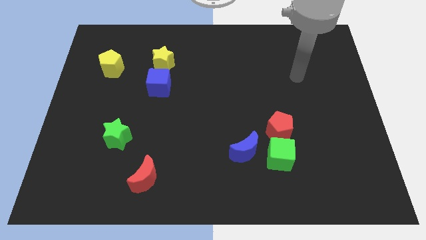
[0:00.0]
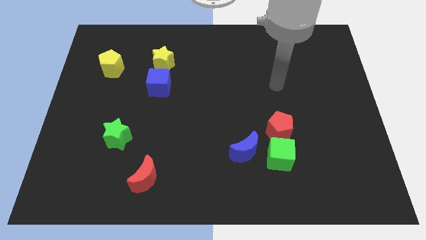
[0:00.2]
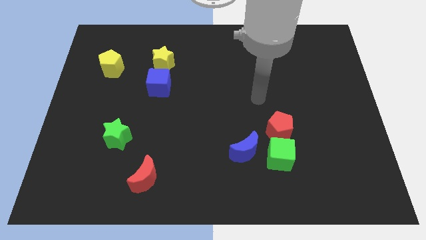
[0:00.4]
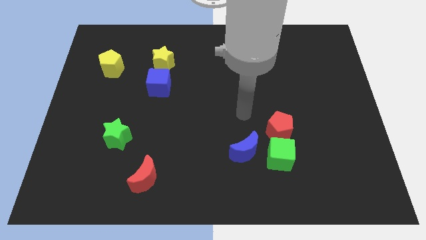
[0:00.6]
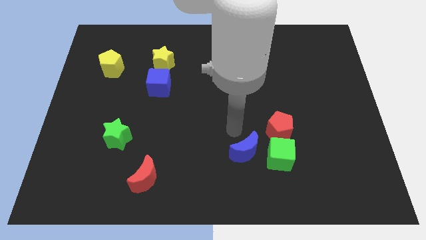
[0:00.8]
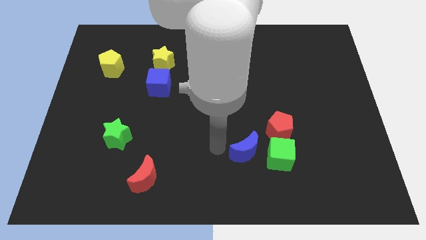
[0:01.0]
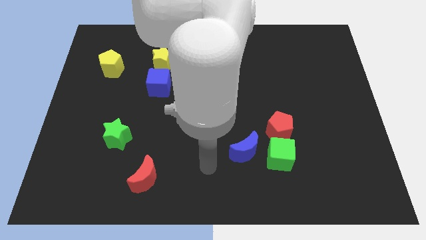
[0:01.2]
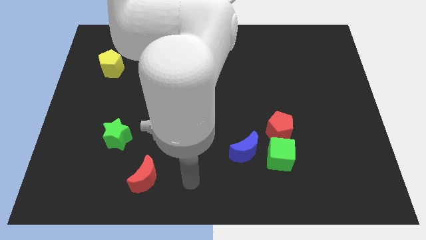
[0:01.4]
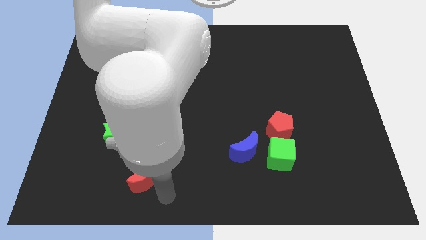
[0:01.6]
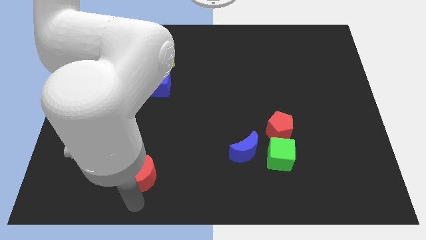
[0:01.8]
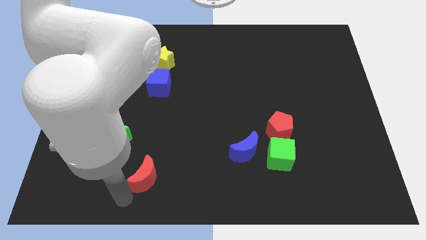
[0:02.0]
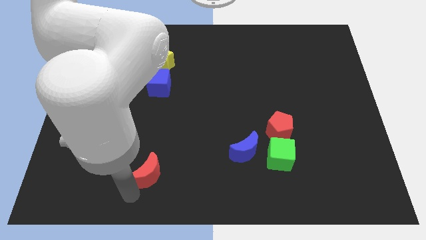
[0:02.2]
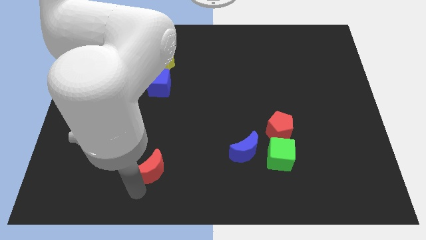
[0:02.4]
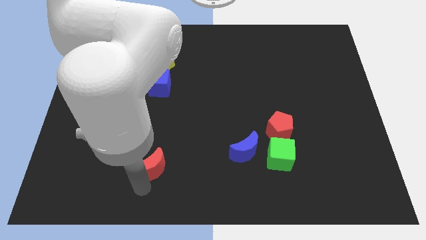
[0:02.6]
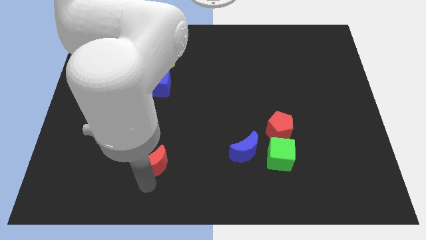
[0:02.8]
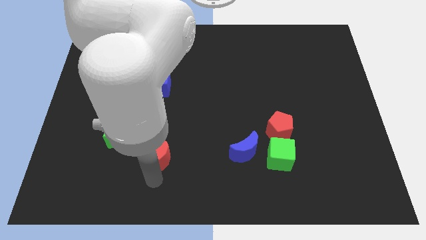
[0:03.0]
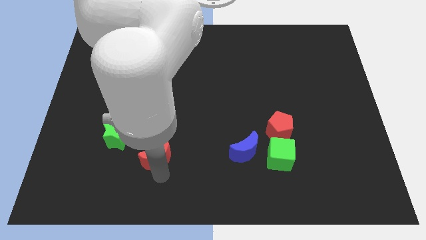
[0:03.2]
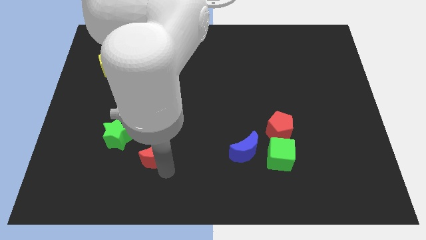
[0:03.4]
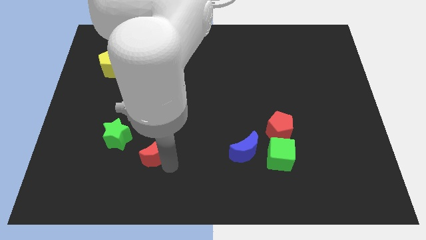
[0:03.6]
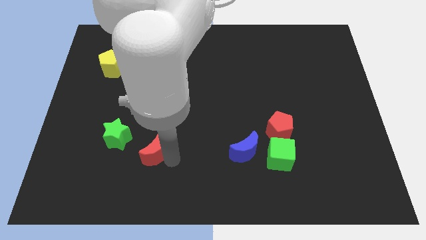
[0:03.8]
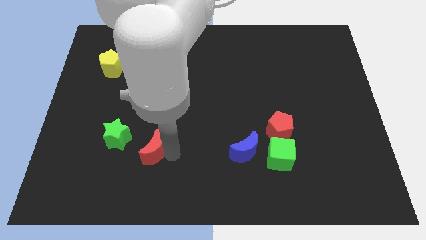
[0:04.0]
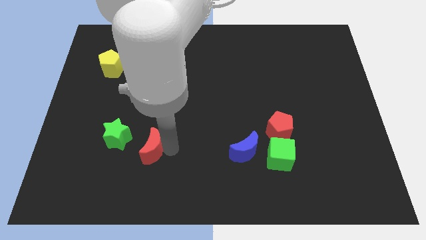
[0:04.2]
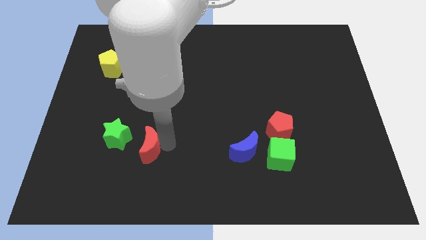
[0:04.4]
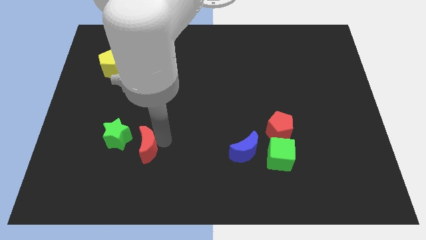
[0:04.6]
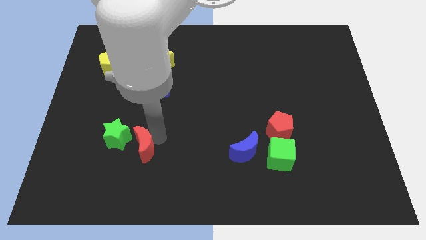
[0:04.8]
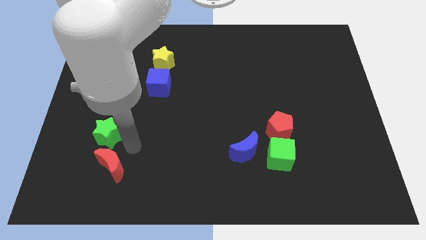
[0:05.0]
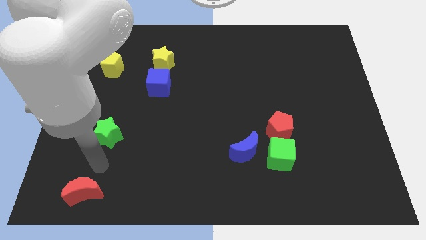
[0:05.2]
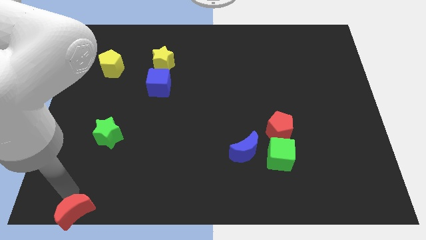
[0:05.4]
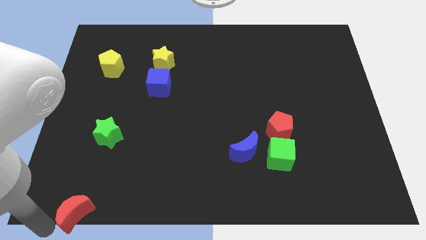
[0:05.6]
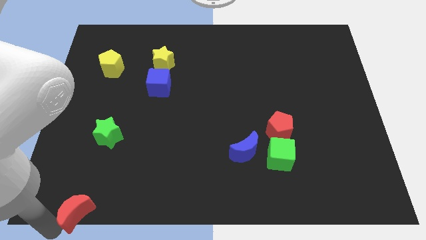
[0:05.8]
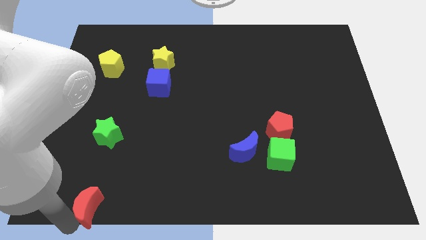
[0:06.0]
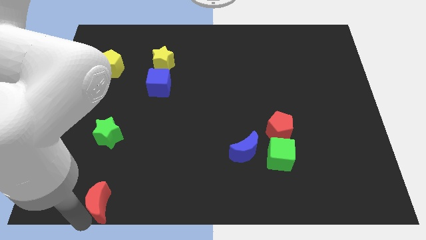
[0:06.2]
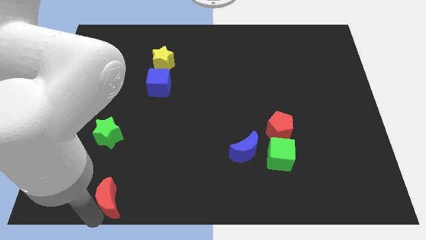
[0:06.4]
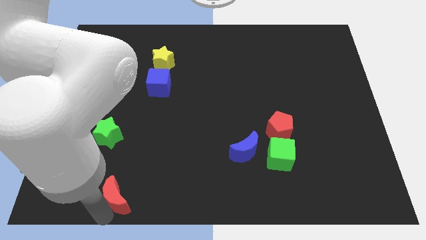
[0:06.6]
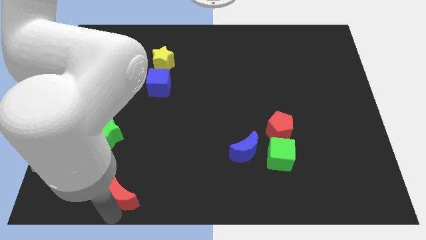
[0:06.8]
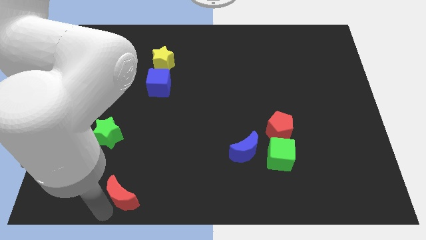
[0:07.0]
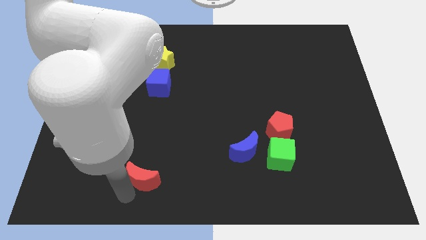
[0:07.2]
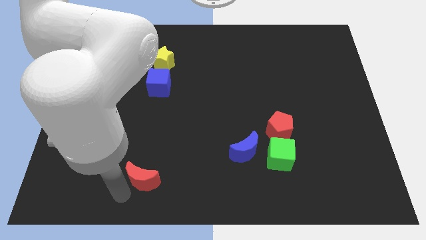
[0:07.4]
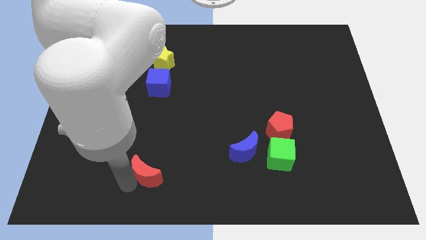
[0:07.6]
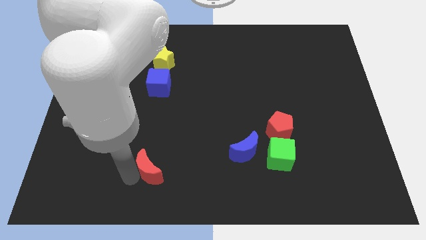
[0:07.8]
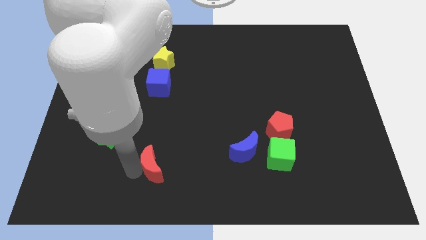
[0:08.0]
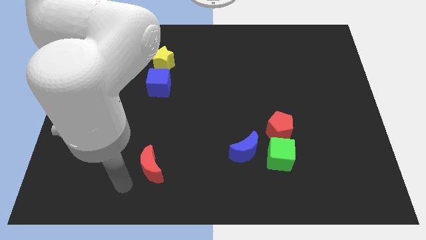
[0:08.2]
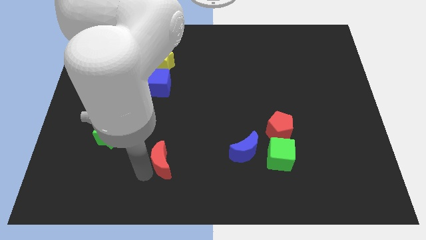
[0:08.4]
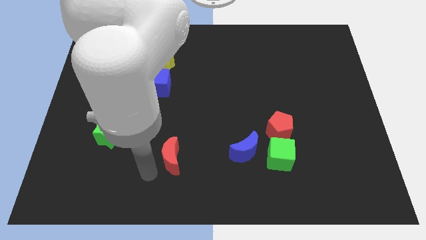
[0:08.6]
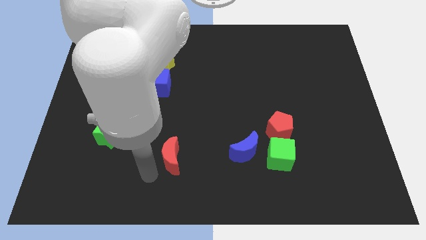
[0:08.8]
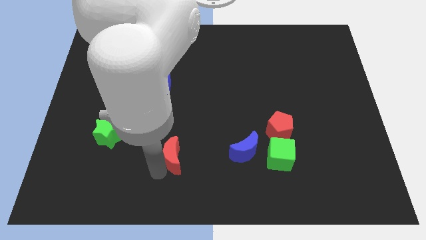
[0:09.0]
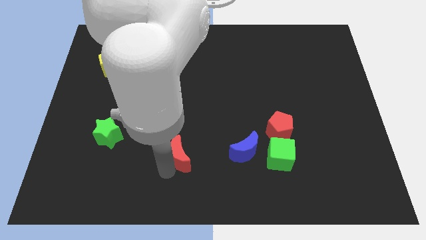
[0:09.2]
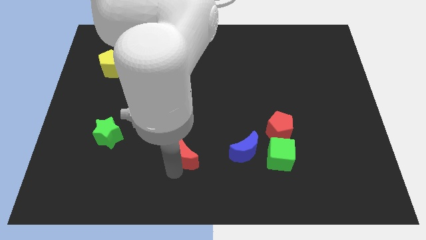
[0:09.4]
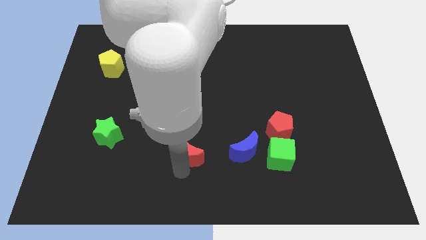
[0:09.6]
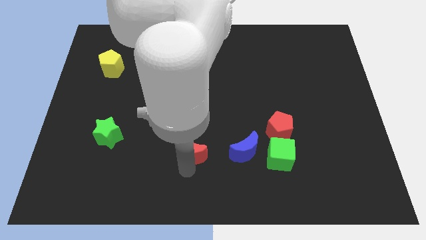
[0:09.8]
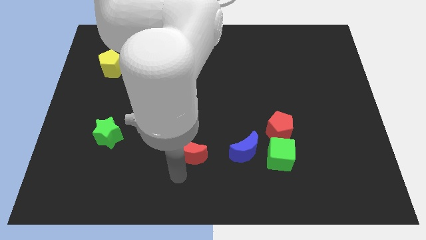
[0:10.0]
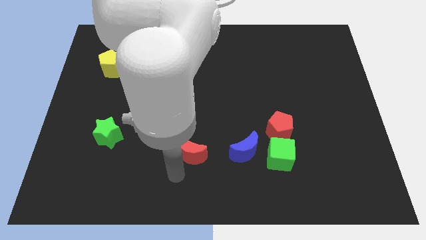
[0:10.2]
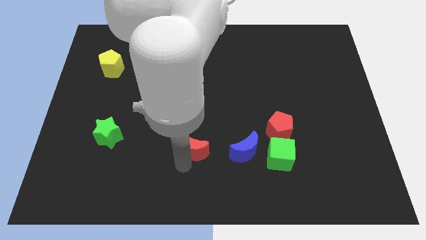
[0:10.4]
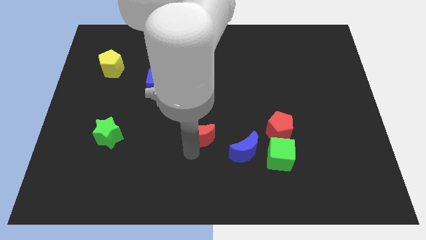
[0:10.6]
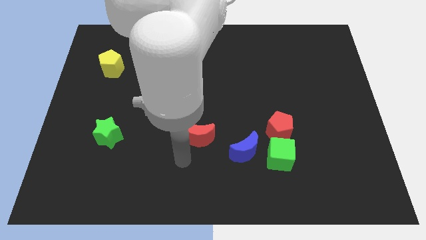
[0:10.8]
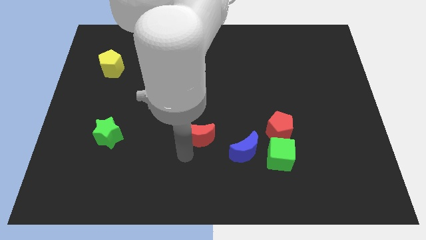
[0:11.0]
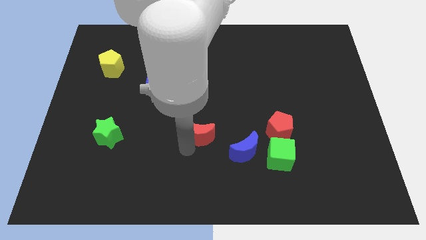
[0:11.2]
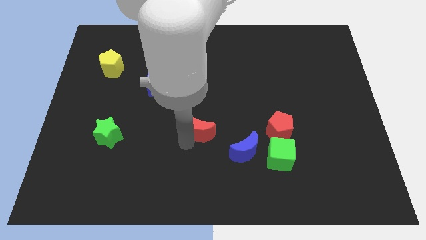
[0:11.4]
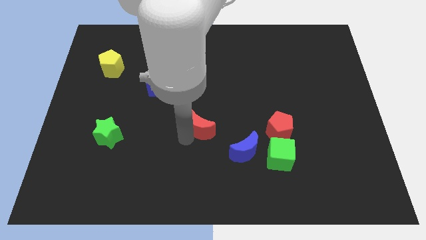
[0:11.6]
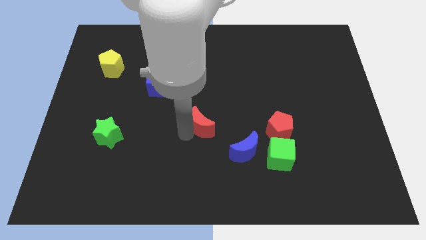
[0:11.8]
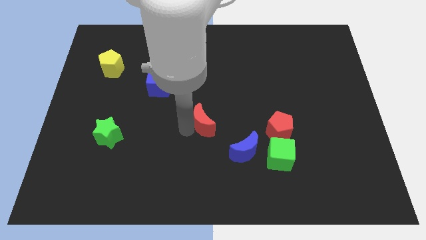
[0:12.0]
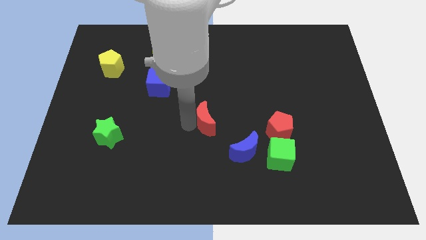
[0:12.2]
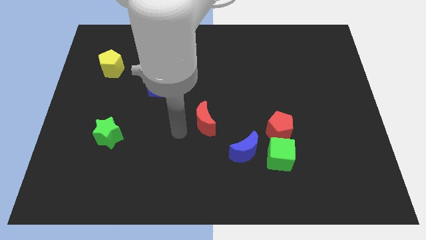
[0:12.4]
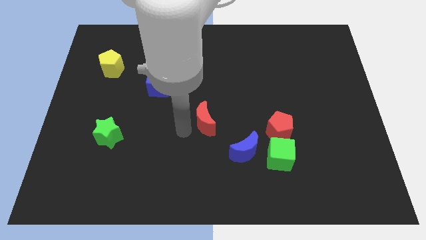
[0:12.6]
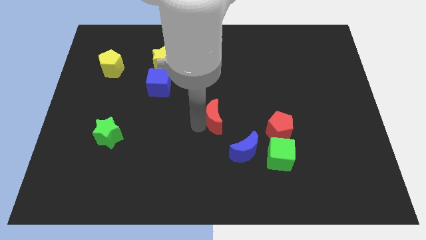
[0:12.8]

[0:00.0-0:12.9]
slide the red moon upwards and then to the right

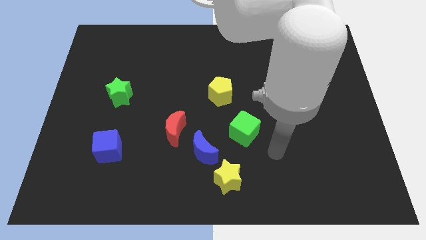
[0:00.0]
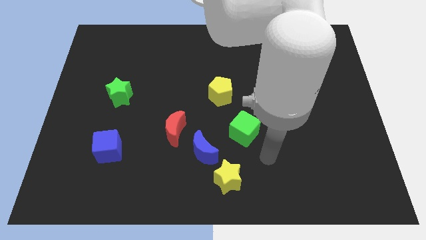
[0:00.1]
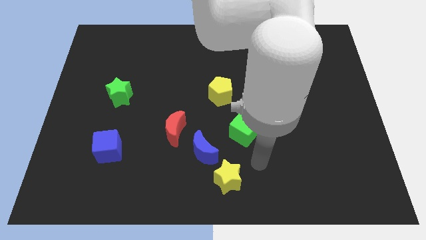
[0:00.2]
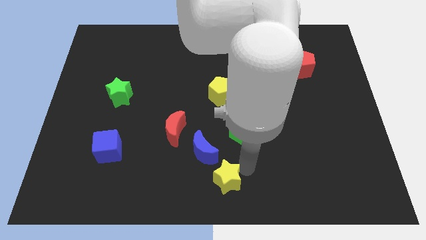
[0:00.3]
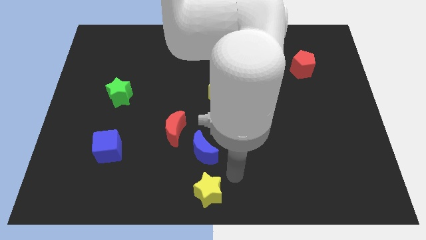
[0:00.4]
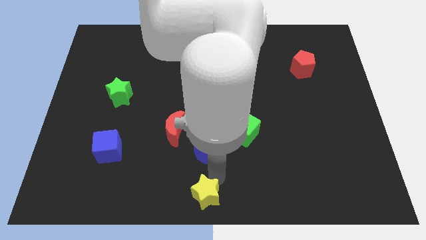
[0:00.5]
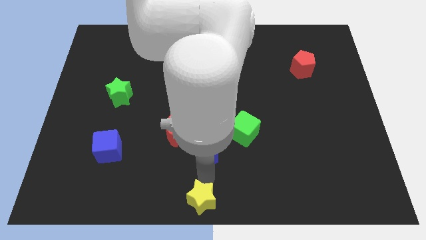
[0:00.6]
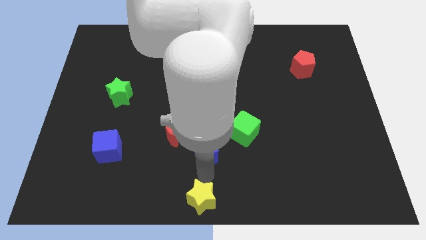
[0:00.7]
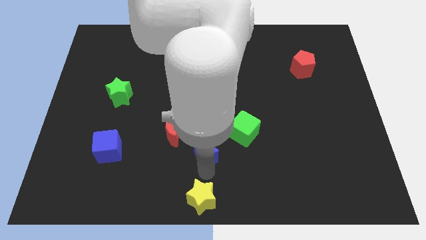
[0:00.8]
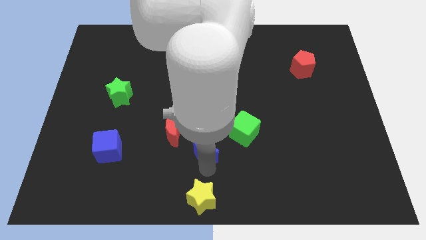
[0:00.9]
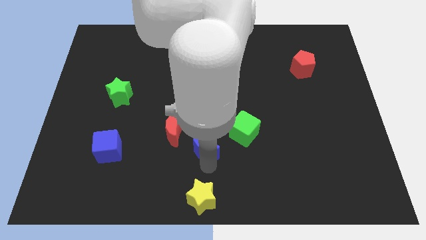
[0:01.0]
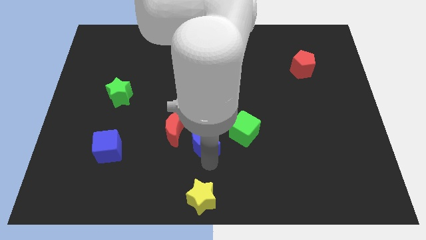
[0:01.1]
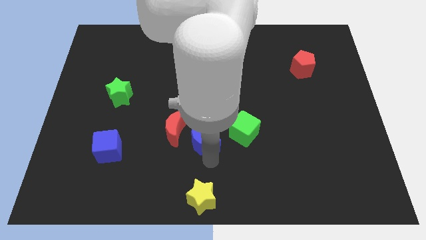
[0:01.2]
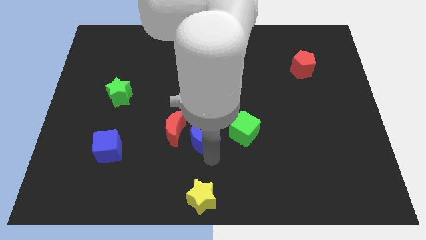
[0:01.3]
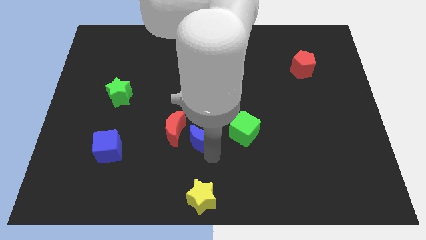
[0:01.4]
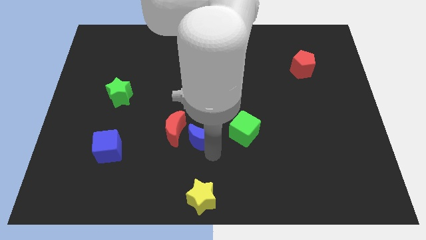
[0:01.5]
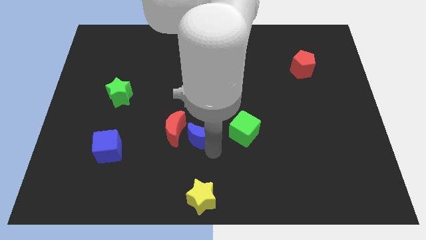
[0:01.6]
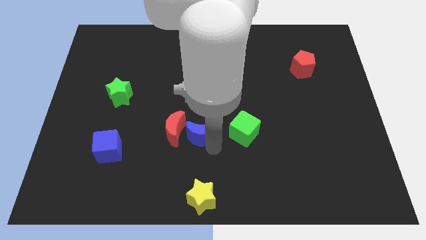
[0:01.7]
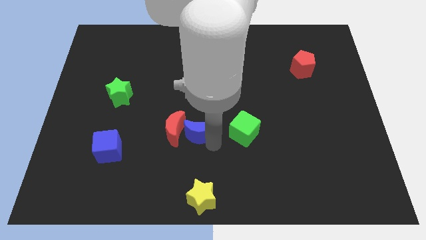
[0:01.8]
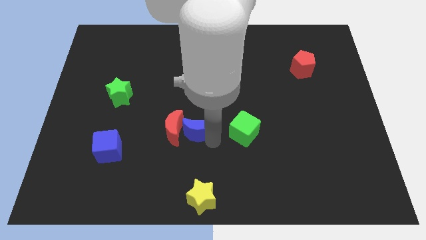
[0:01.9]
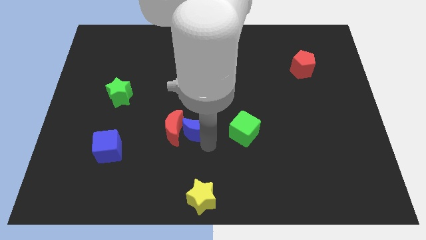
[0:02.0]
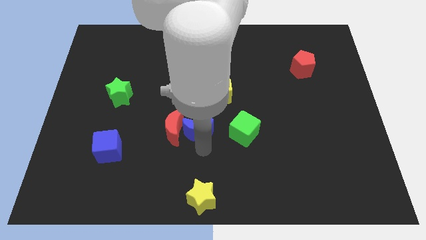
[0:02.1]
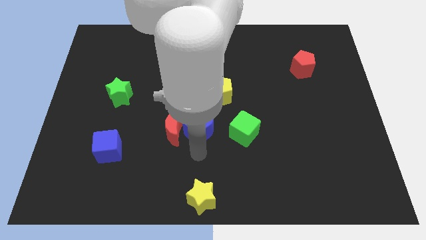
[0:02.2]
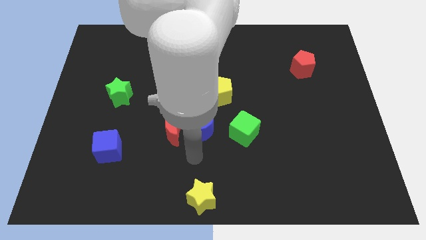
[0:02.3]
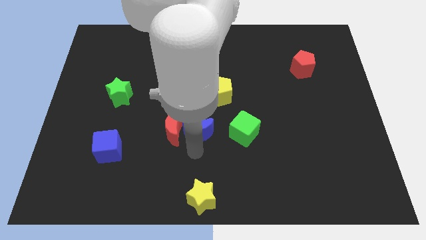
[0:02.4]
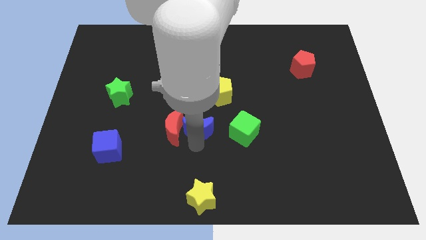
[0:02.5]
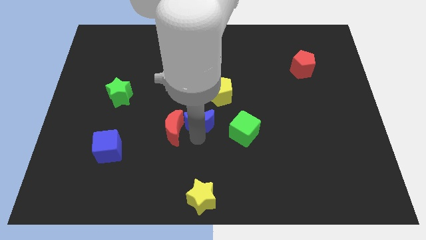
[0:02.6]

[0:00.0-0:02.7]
slightly move the blue moon up
